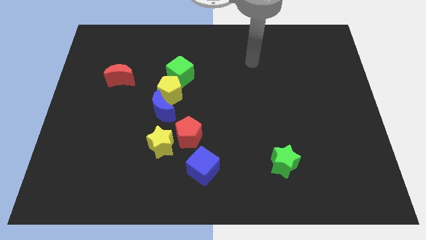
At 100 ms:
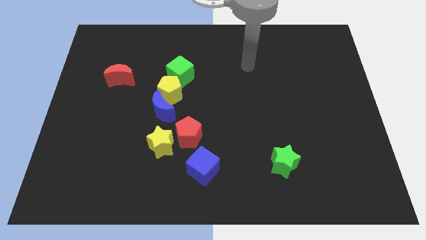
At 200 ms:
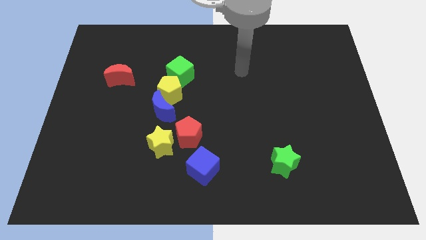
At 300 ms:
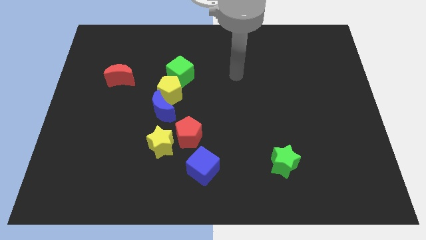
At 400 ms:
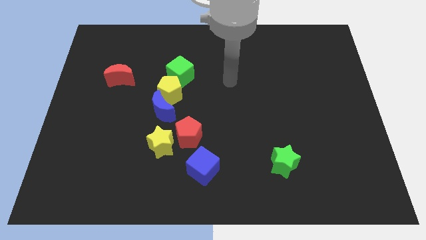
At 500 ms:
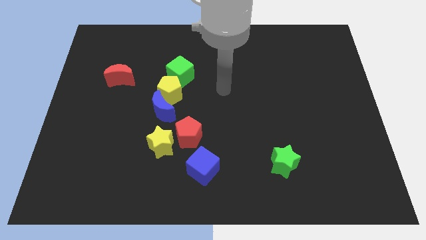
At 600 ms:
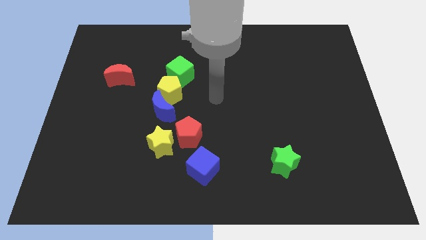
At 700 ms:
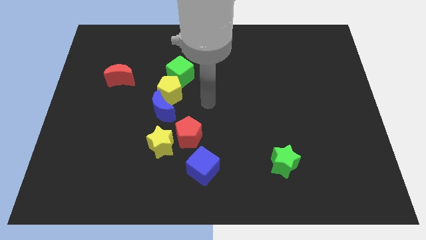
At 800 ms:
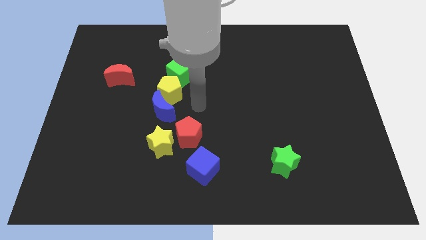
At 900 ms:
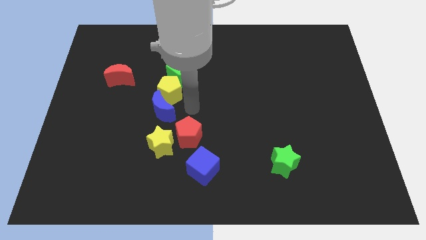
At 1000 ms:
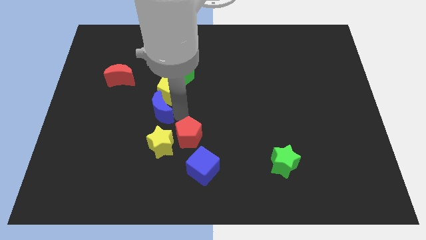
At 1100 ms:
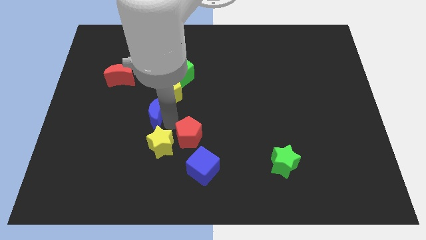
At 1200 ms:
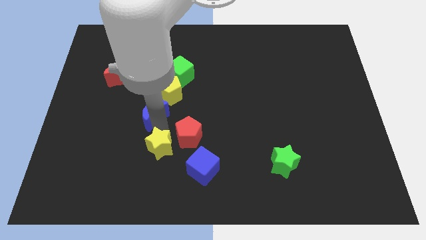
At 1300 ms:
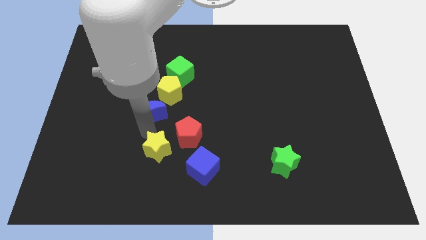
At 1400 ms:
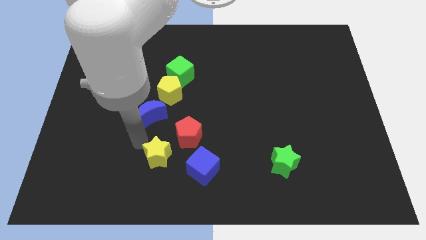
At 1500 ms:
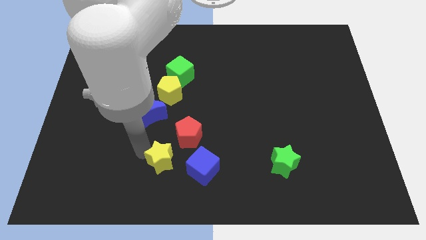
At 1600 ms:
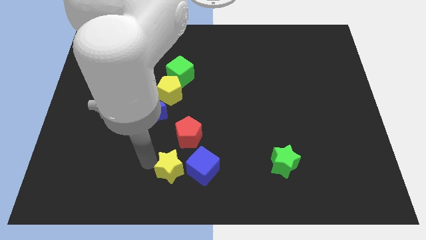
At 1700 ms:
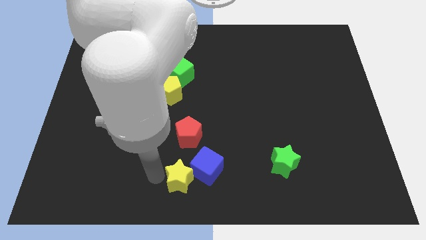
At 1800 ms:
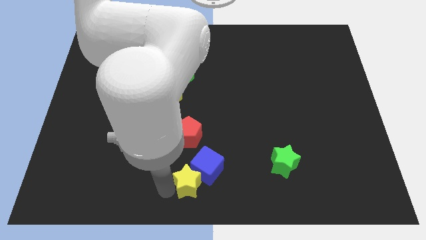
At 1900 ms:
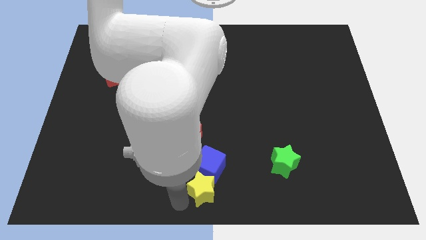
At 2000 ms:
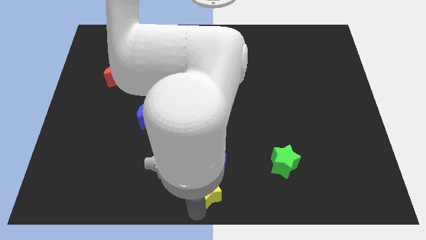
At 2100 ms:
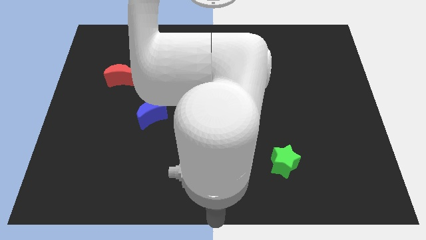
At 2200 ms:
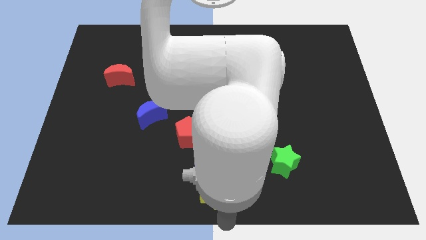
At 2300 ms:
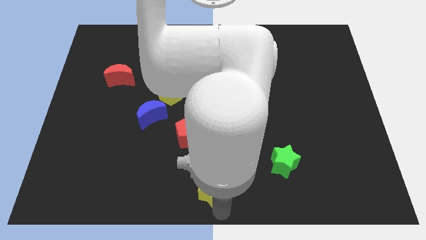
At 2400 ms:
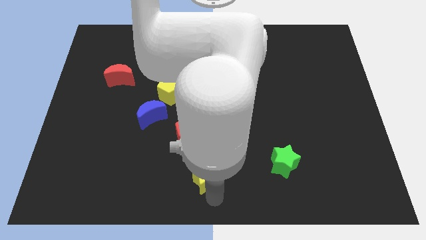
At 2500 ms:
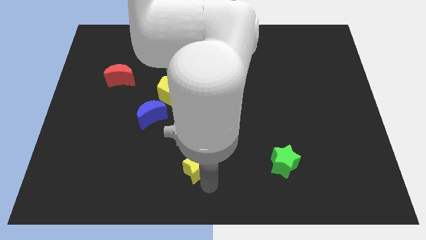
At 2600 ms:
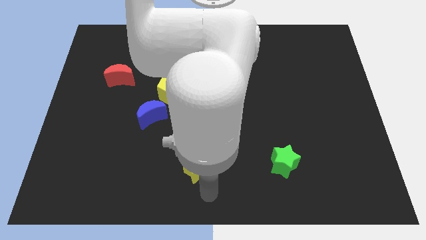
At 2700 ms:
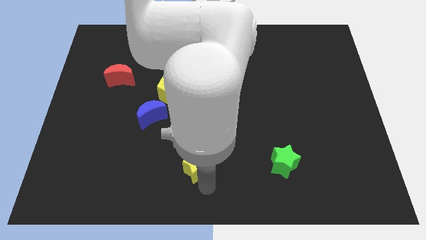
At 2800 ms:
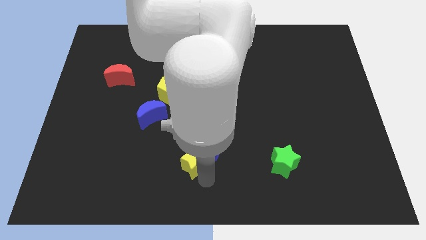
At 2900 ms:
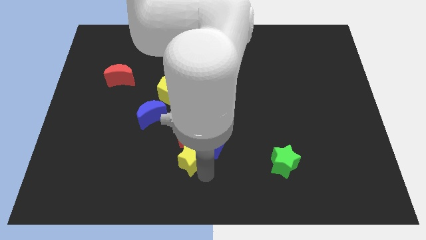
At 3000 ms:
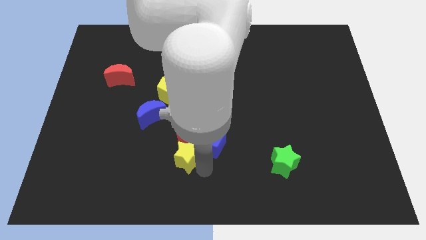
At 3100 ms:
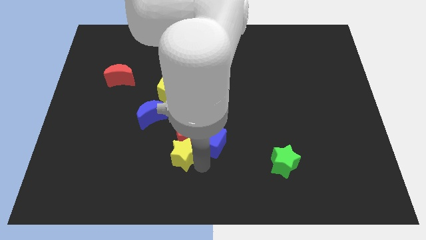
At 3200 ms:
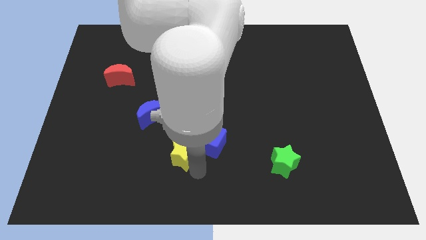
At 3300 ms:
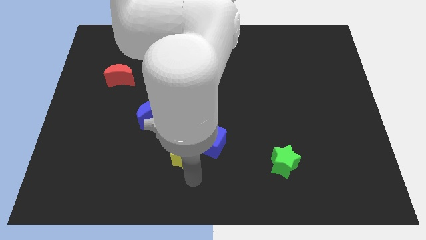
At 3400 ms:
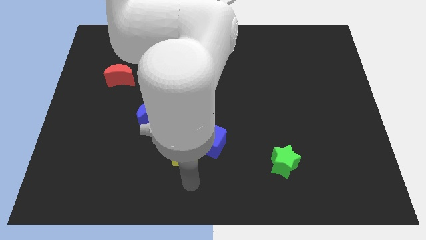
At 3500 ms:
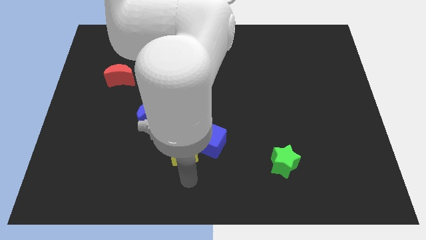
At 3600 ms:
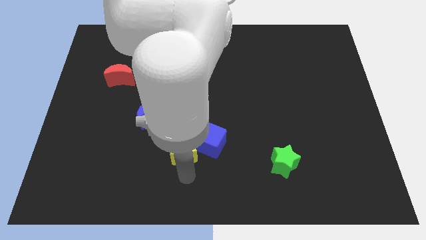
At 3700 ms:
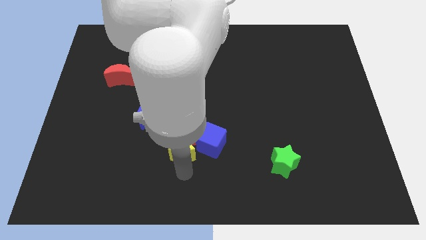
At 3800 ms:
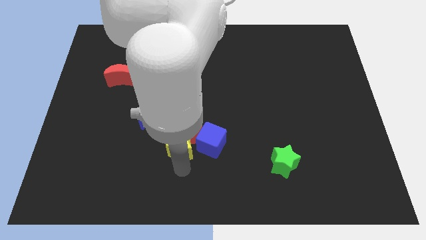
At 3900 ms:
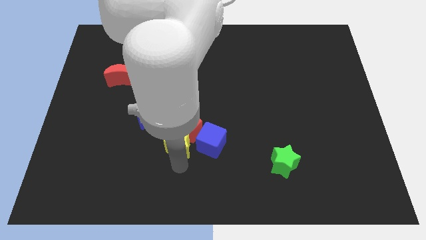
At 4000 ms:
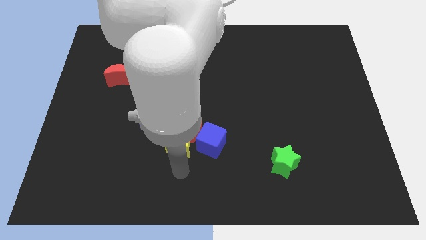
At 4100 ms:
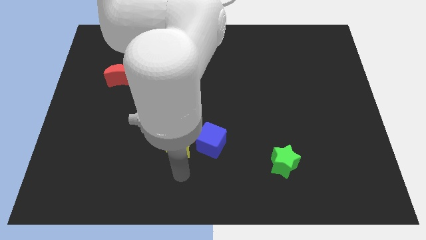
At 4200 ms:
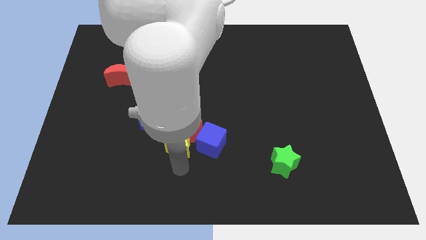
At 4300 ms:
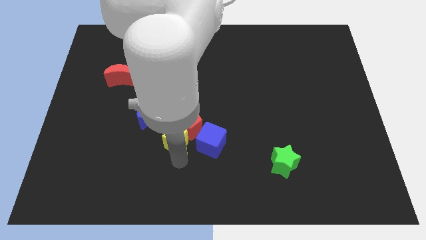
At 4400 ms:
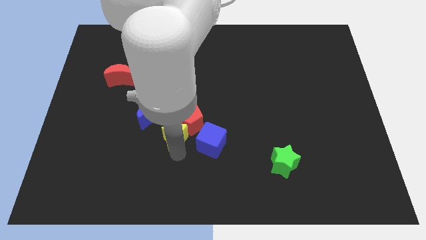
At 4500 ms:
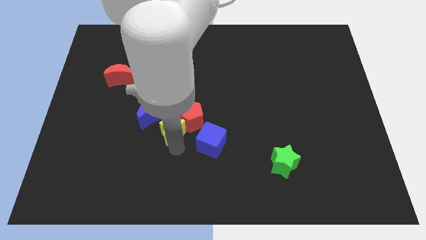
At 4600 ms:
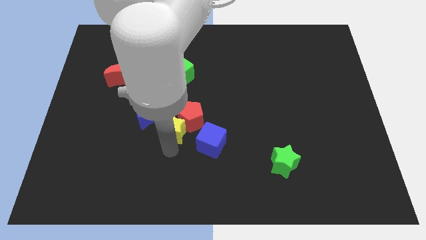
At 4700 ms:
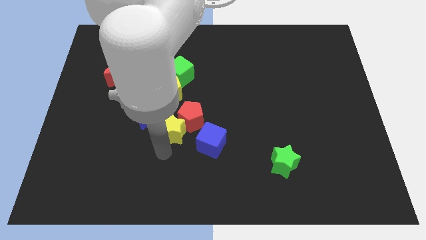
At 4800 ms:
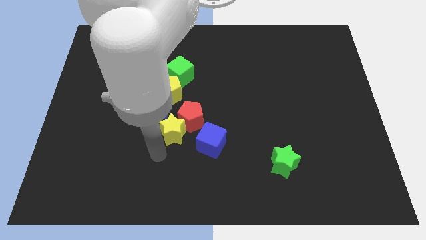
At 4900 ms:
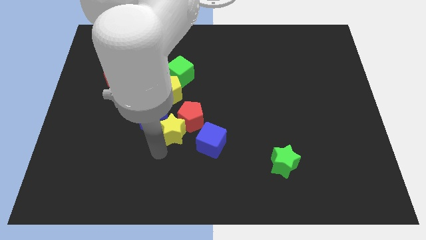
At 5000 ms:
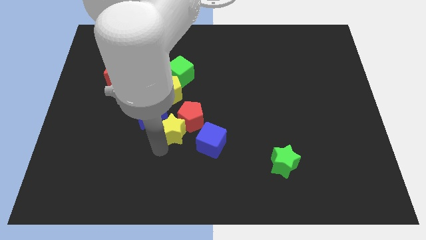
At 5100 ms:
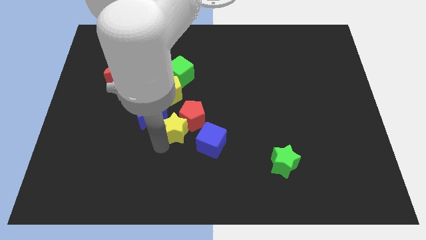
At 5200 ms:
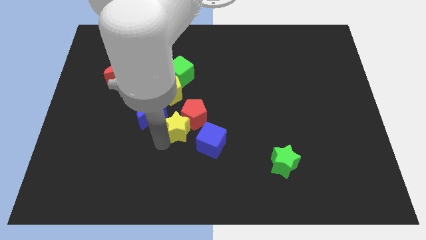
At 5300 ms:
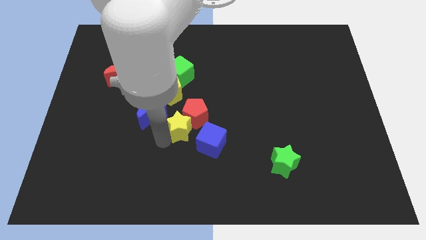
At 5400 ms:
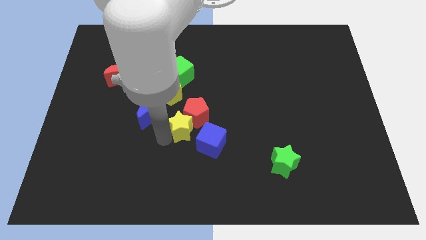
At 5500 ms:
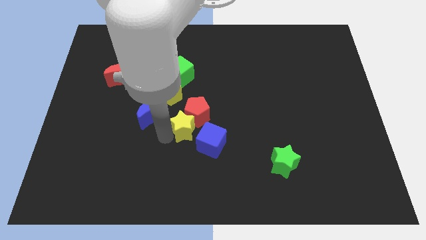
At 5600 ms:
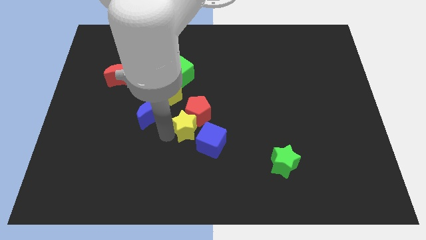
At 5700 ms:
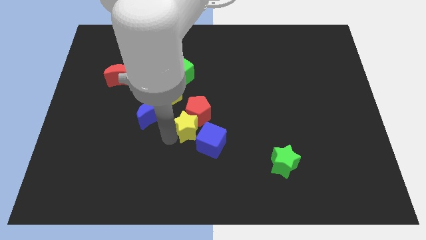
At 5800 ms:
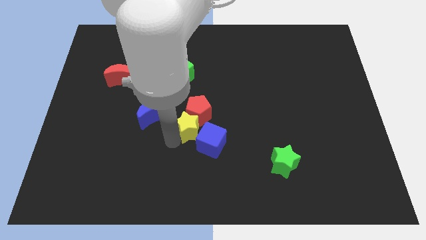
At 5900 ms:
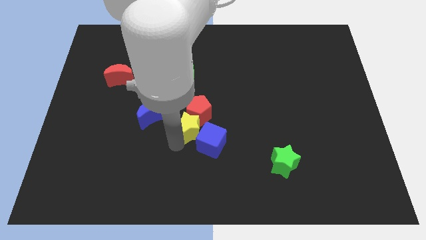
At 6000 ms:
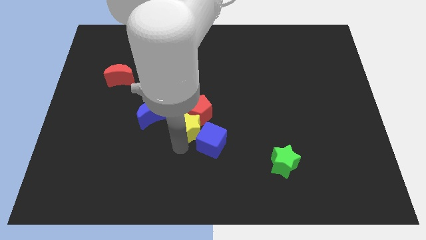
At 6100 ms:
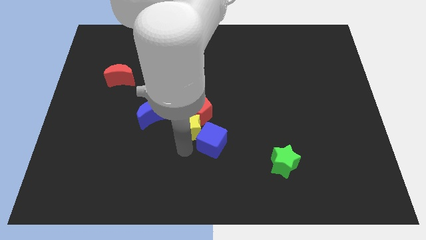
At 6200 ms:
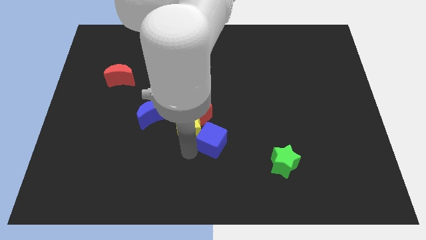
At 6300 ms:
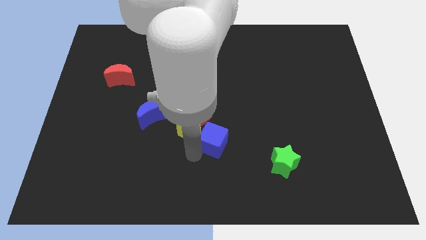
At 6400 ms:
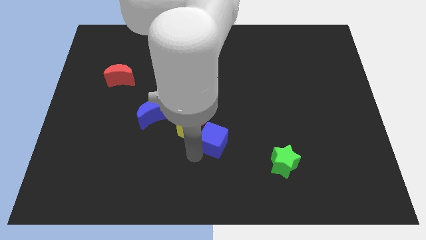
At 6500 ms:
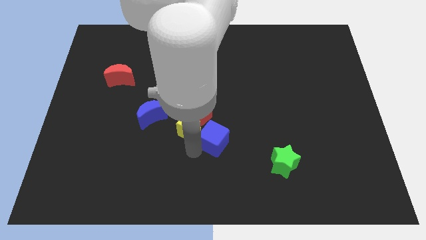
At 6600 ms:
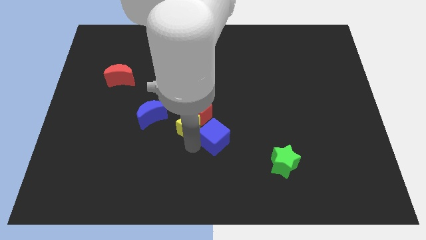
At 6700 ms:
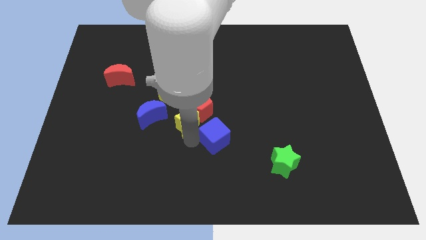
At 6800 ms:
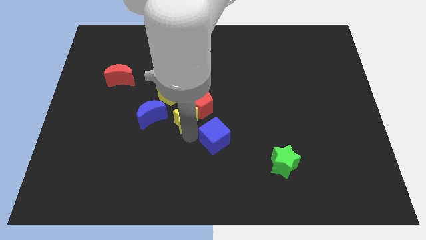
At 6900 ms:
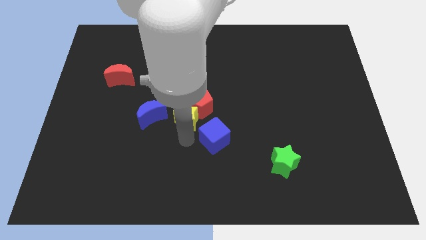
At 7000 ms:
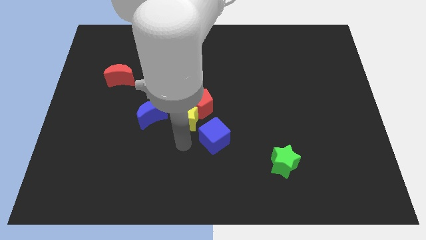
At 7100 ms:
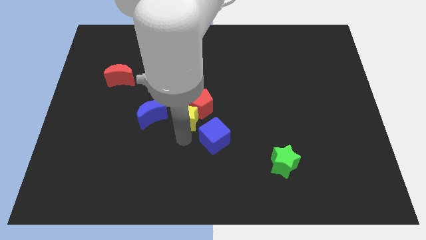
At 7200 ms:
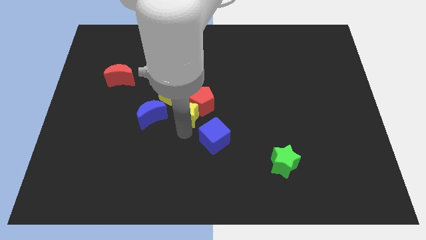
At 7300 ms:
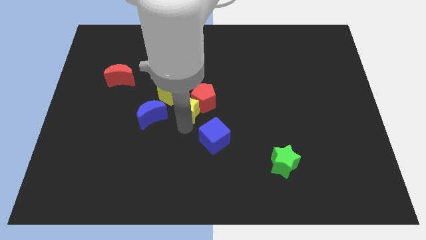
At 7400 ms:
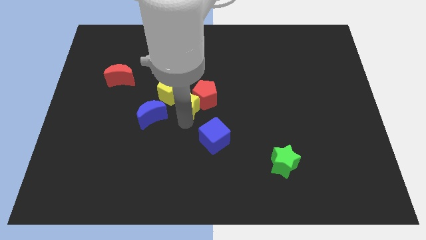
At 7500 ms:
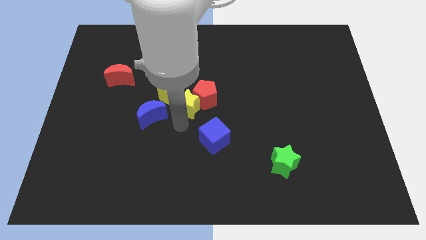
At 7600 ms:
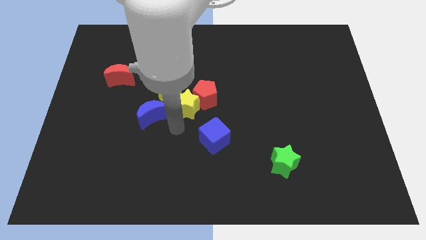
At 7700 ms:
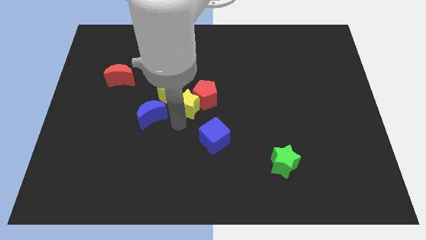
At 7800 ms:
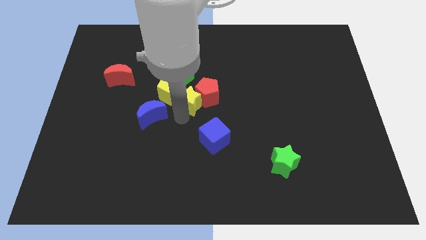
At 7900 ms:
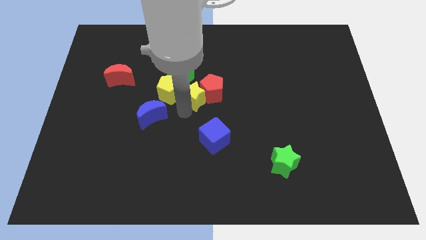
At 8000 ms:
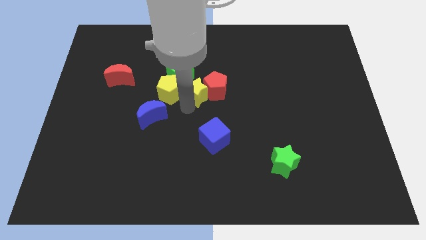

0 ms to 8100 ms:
push the yellow star diagonally up and to the right of the yellow pentagon
